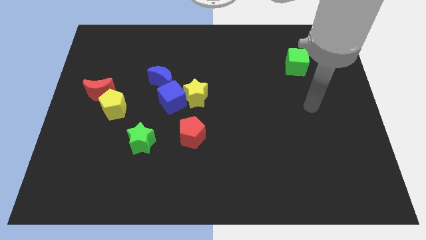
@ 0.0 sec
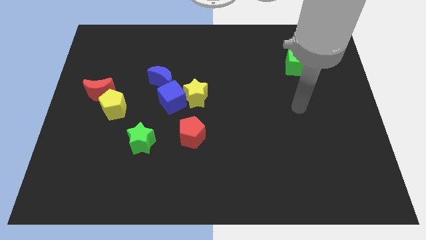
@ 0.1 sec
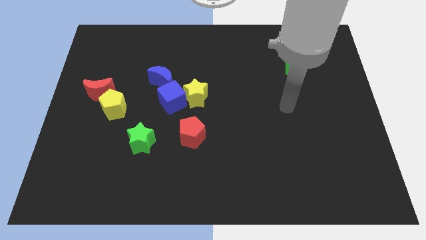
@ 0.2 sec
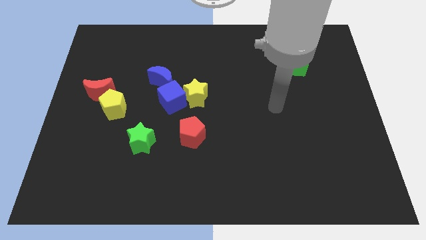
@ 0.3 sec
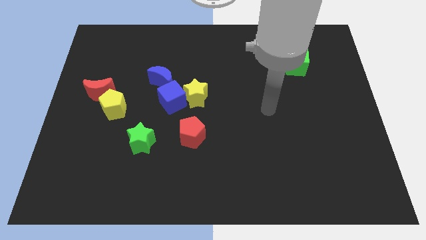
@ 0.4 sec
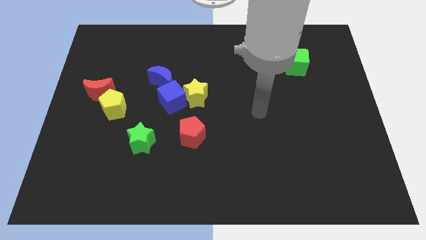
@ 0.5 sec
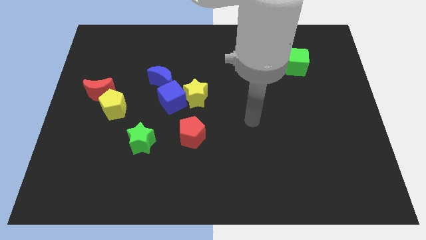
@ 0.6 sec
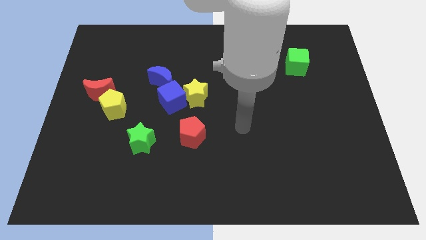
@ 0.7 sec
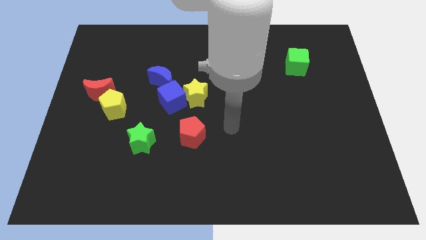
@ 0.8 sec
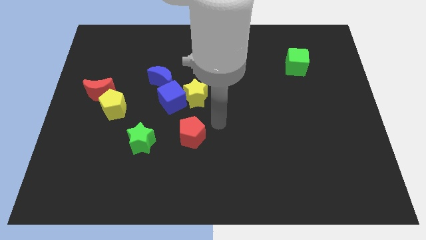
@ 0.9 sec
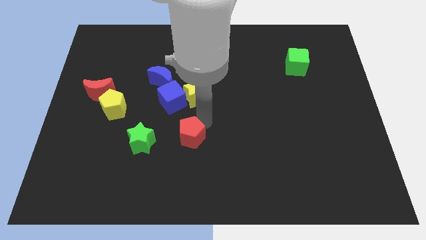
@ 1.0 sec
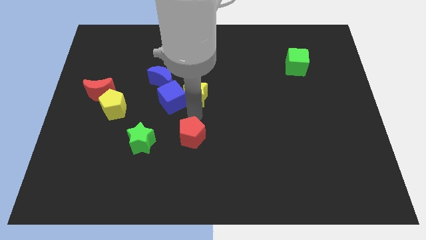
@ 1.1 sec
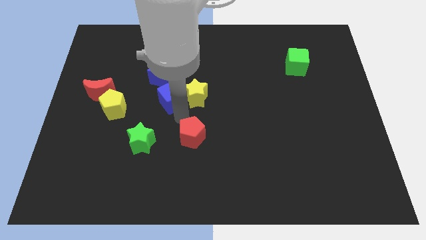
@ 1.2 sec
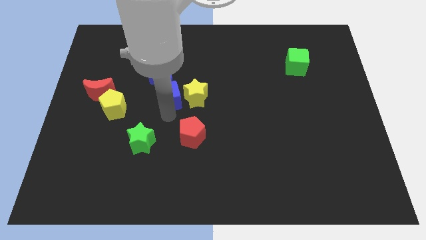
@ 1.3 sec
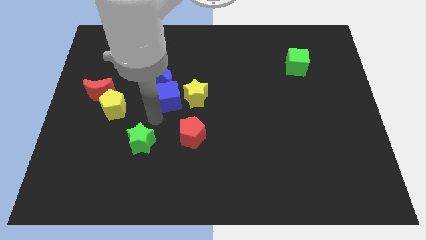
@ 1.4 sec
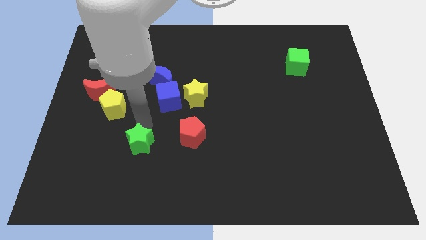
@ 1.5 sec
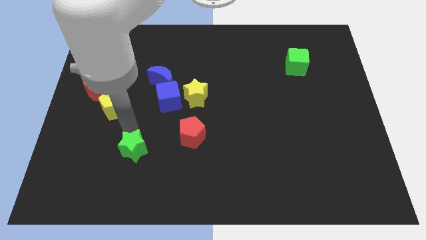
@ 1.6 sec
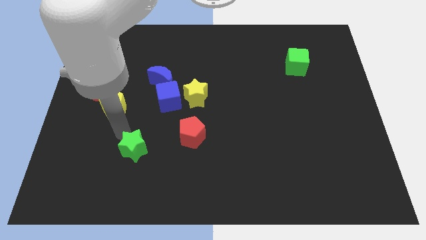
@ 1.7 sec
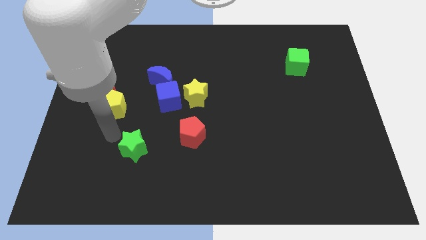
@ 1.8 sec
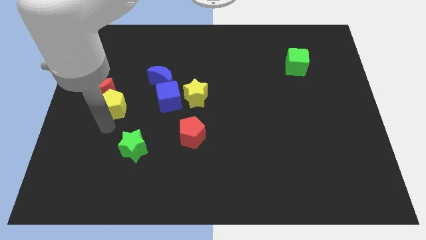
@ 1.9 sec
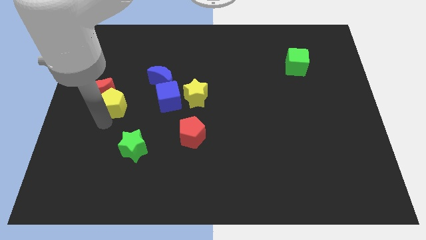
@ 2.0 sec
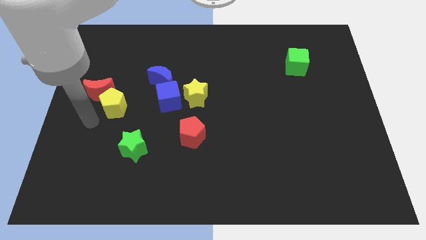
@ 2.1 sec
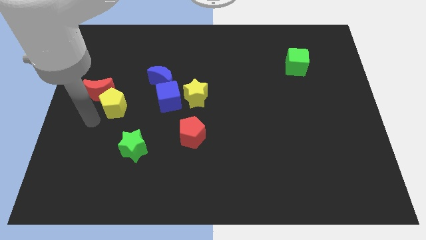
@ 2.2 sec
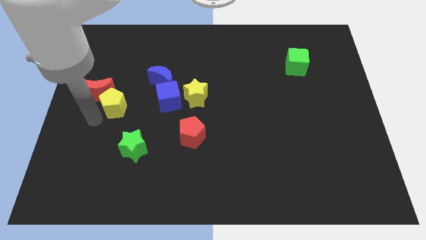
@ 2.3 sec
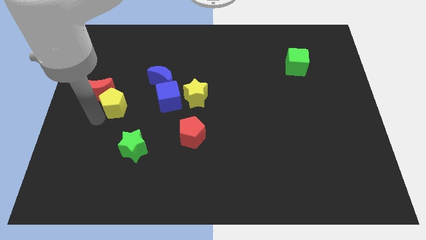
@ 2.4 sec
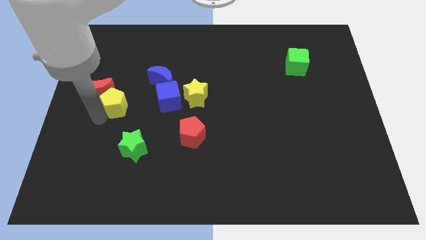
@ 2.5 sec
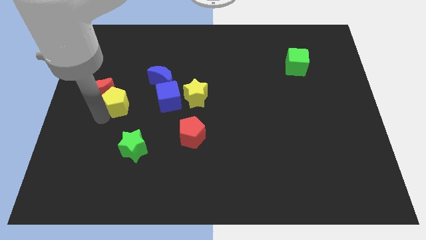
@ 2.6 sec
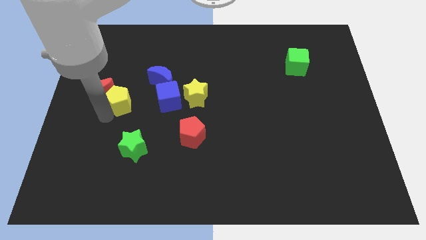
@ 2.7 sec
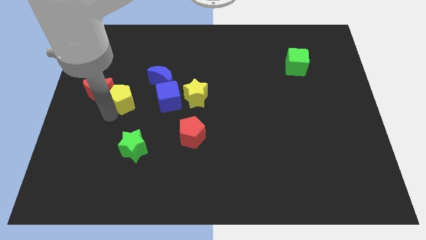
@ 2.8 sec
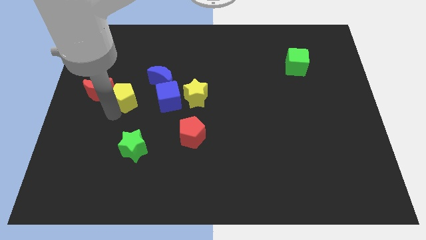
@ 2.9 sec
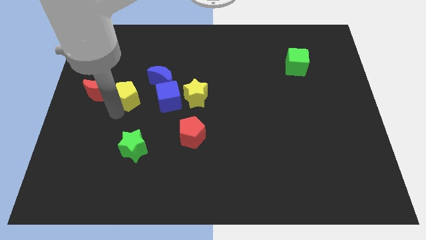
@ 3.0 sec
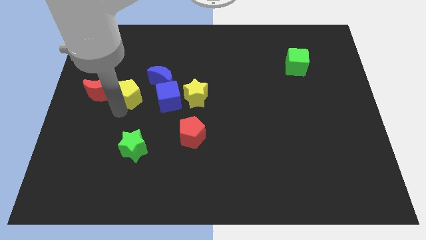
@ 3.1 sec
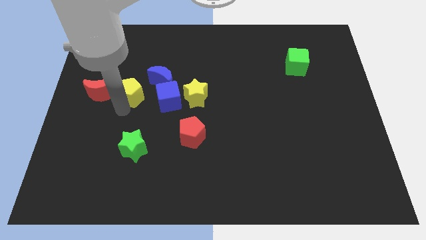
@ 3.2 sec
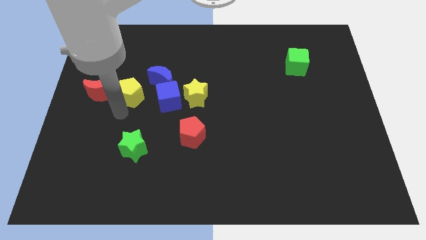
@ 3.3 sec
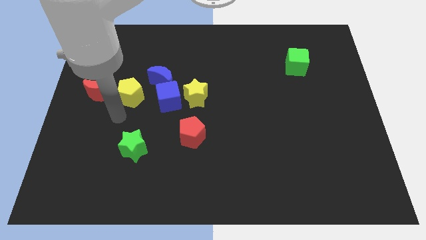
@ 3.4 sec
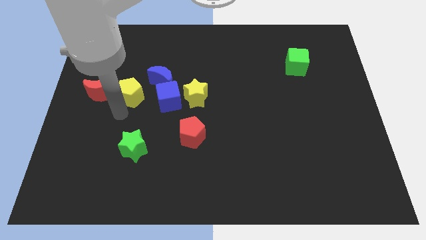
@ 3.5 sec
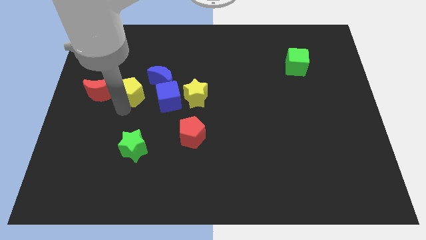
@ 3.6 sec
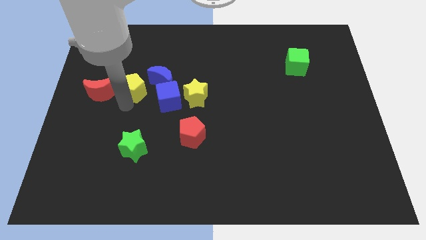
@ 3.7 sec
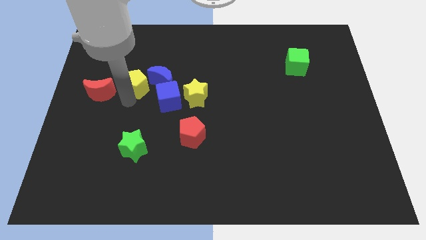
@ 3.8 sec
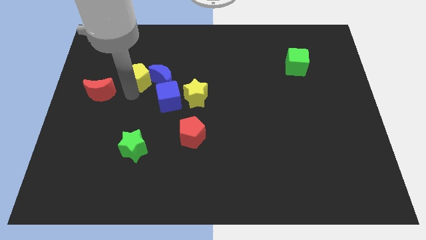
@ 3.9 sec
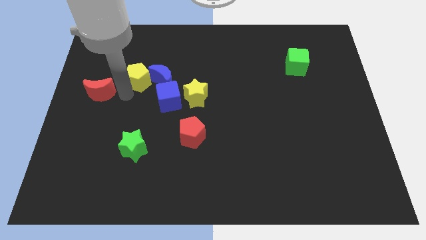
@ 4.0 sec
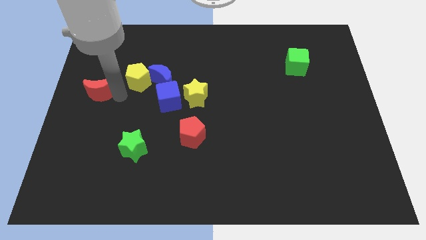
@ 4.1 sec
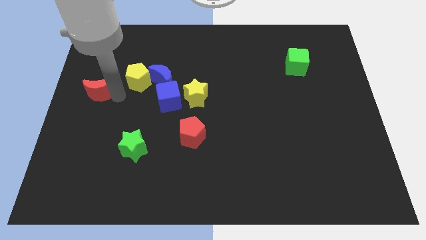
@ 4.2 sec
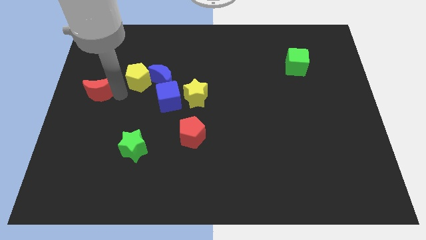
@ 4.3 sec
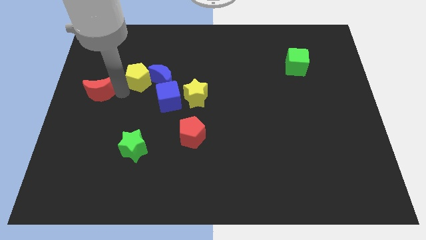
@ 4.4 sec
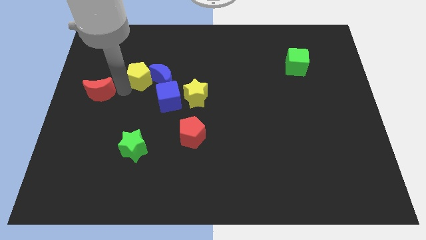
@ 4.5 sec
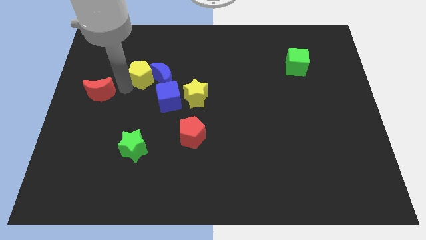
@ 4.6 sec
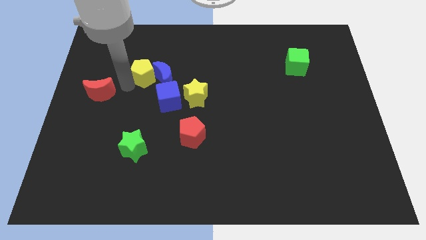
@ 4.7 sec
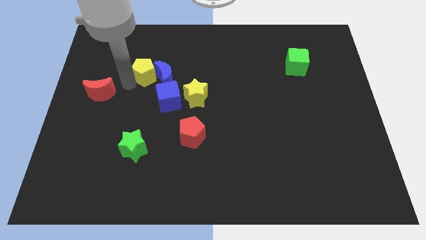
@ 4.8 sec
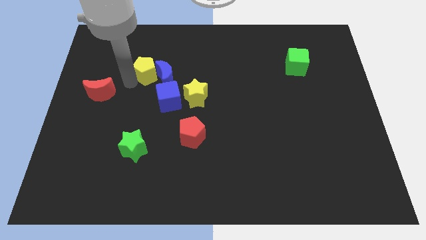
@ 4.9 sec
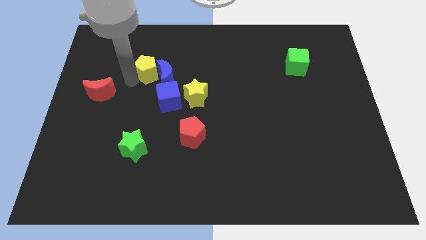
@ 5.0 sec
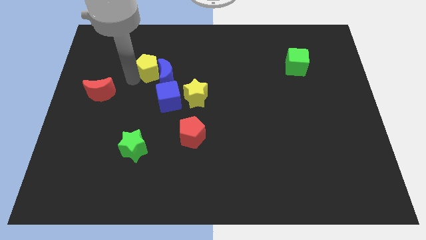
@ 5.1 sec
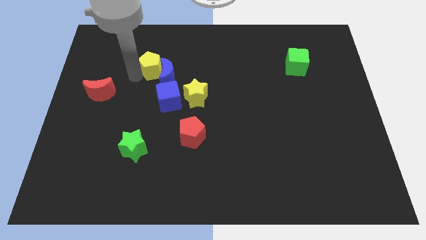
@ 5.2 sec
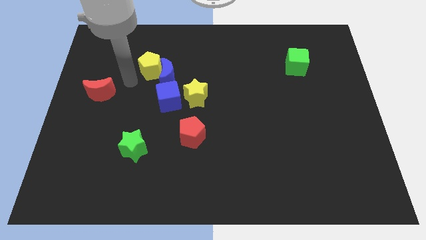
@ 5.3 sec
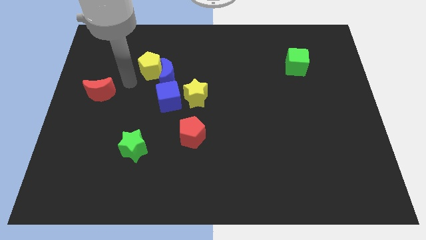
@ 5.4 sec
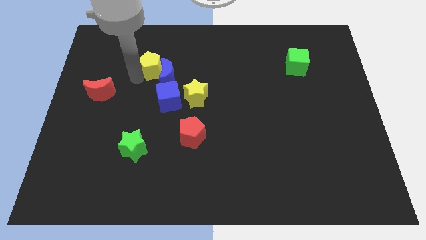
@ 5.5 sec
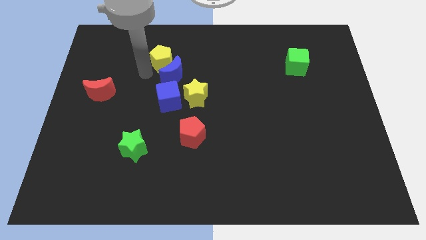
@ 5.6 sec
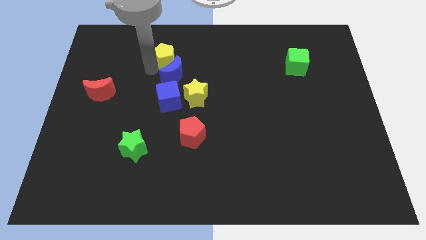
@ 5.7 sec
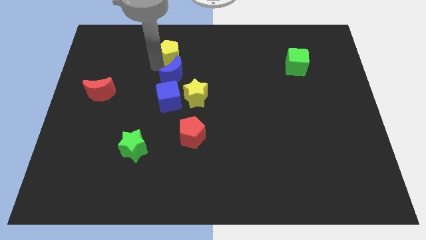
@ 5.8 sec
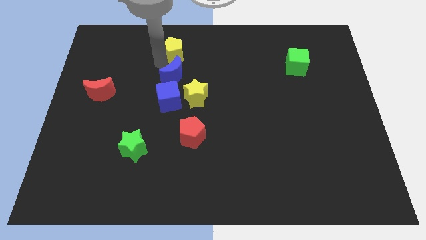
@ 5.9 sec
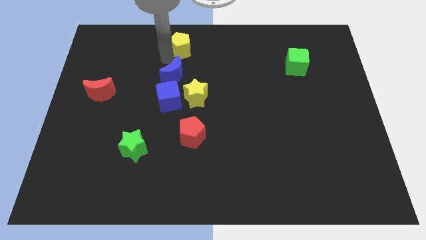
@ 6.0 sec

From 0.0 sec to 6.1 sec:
put the yellow pentagon to the top
